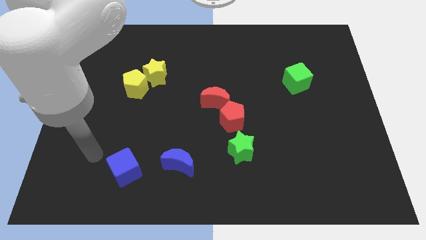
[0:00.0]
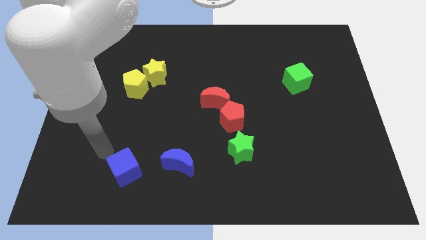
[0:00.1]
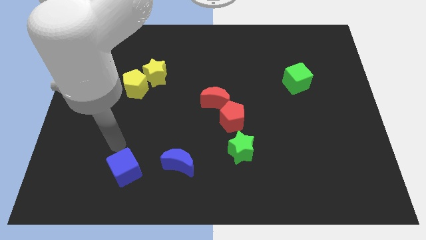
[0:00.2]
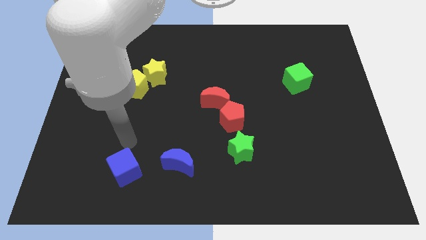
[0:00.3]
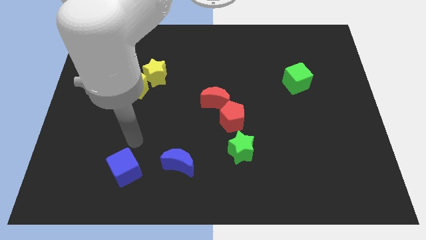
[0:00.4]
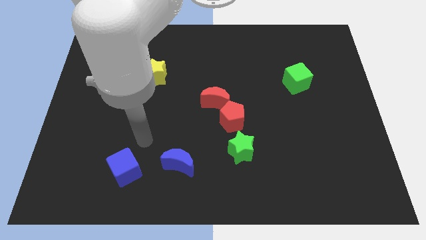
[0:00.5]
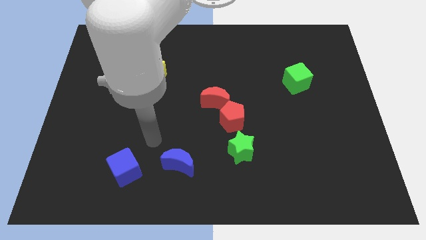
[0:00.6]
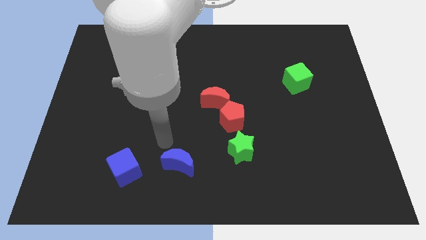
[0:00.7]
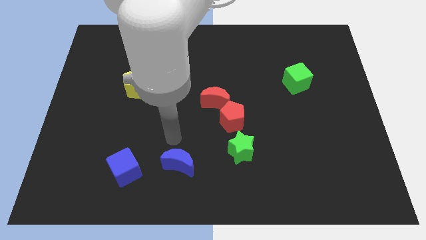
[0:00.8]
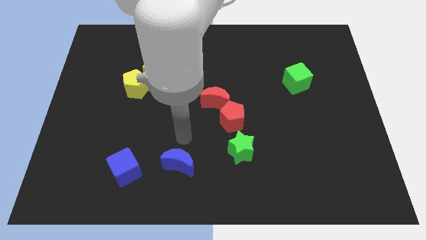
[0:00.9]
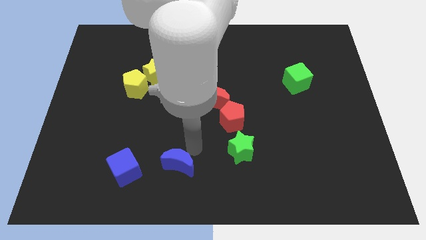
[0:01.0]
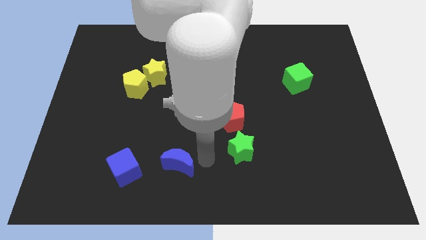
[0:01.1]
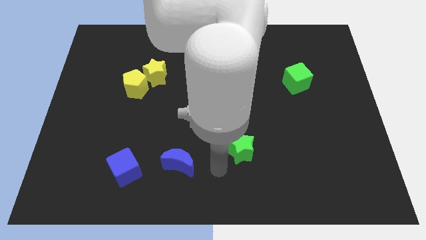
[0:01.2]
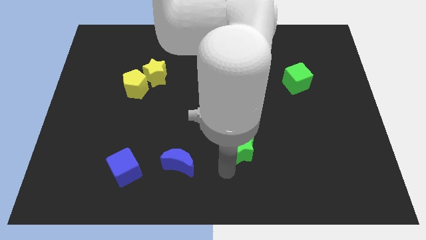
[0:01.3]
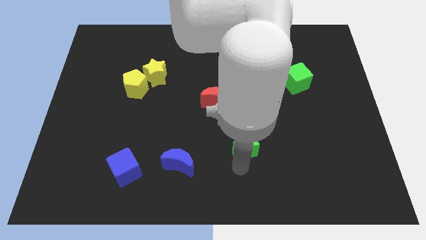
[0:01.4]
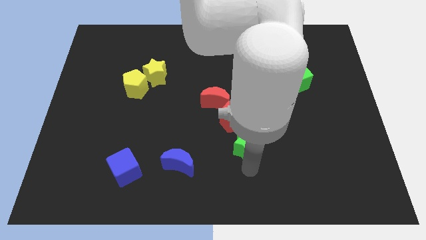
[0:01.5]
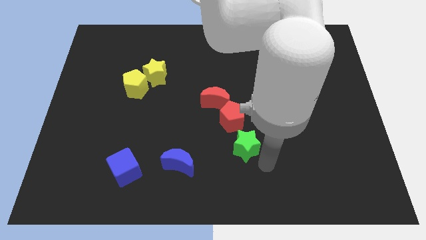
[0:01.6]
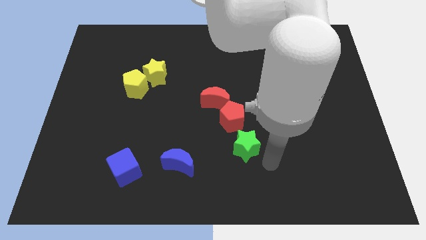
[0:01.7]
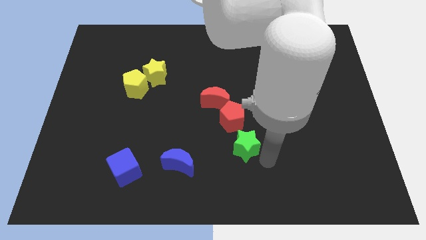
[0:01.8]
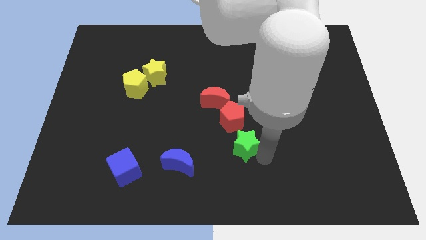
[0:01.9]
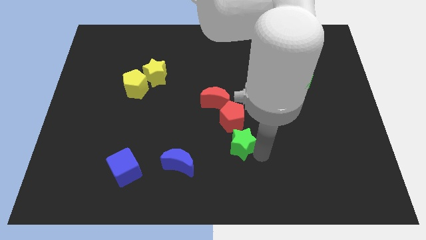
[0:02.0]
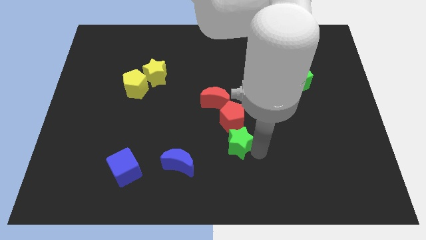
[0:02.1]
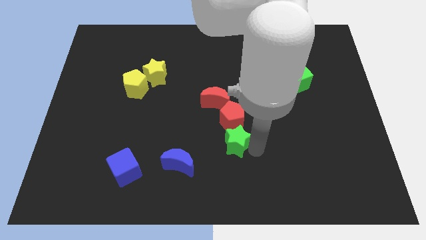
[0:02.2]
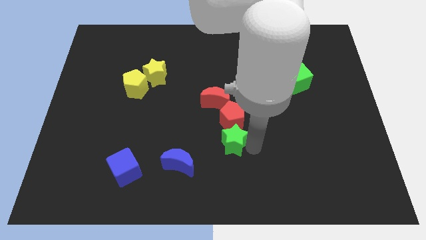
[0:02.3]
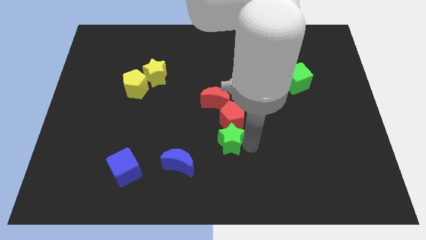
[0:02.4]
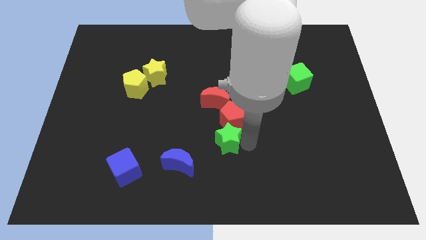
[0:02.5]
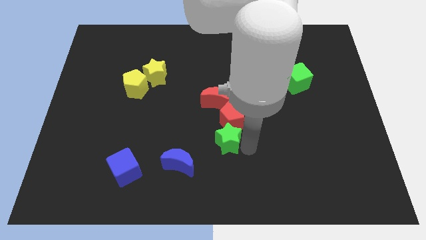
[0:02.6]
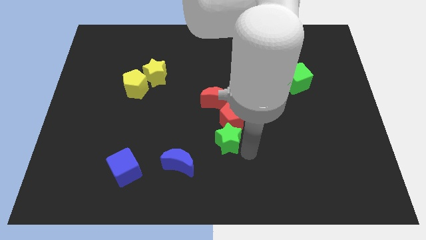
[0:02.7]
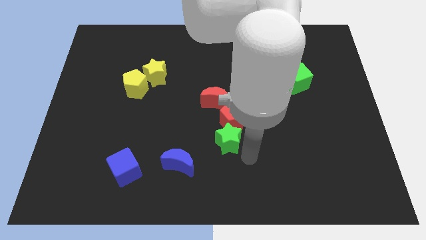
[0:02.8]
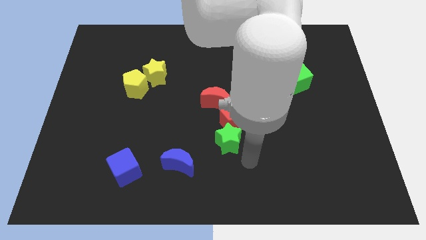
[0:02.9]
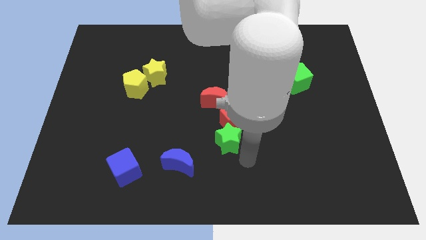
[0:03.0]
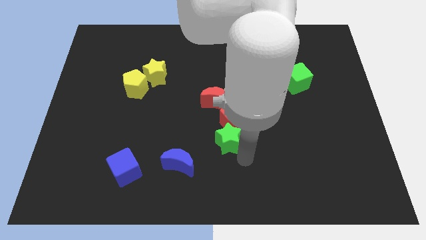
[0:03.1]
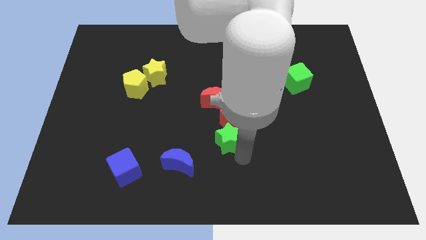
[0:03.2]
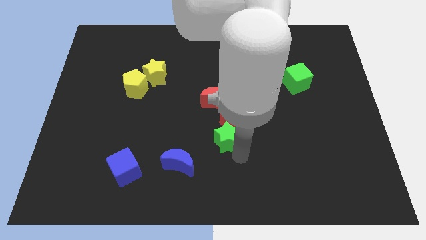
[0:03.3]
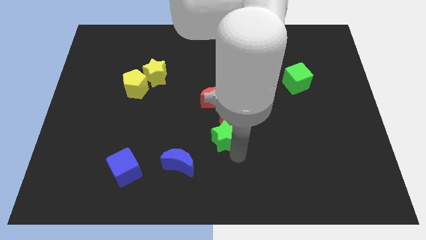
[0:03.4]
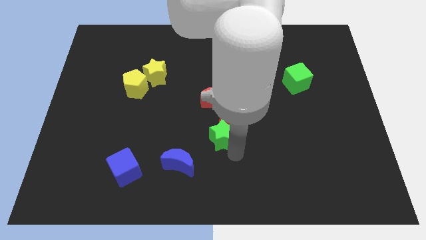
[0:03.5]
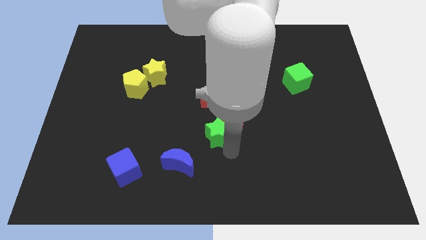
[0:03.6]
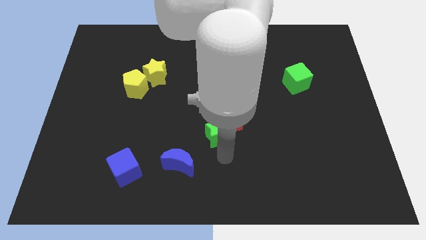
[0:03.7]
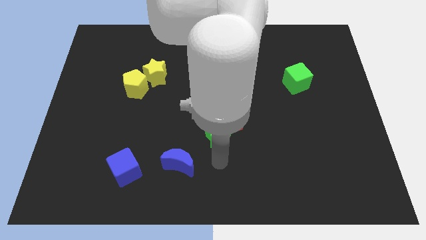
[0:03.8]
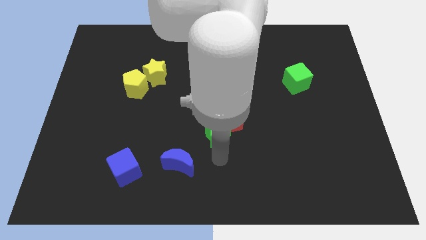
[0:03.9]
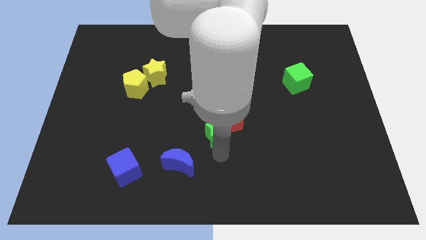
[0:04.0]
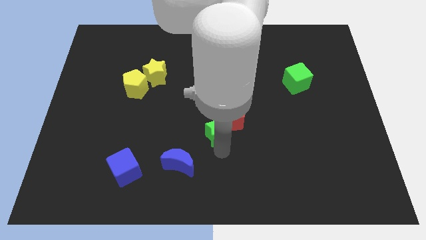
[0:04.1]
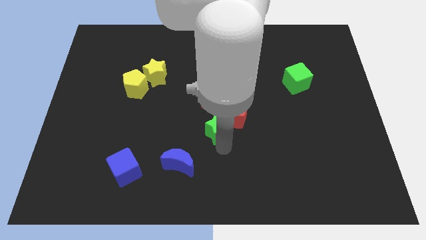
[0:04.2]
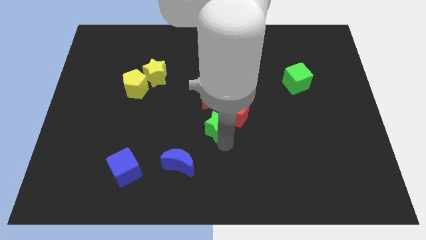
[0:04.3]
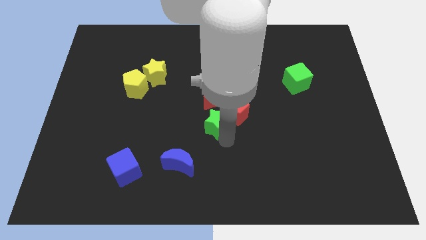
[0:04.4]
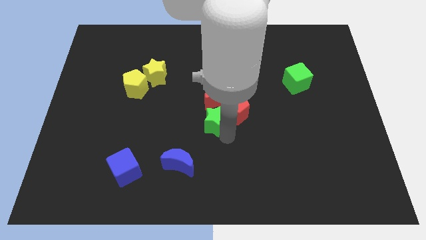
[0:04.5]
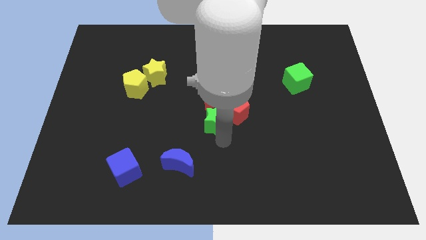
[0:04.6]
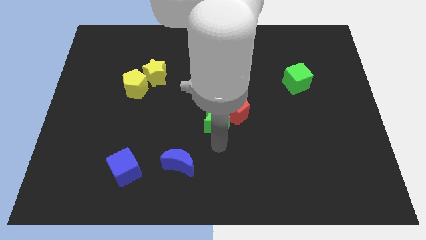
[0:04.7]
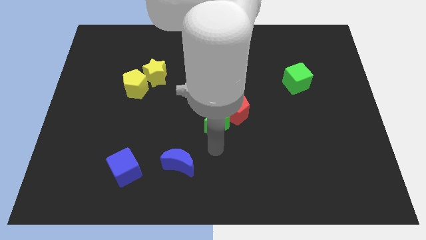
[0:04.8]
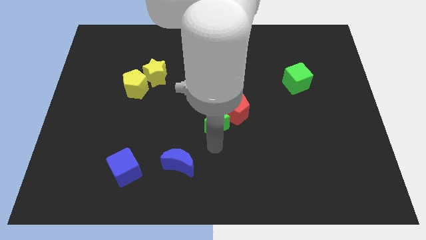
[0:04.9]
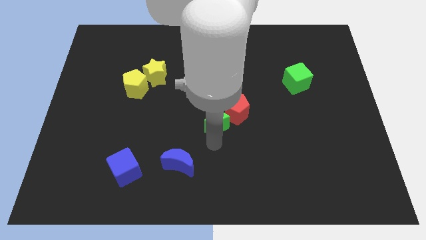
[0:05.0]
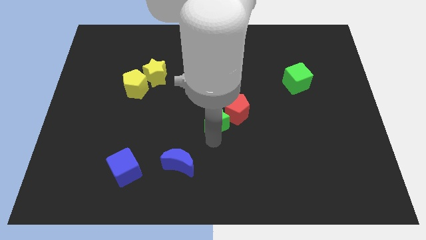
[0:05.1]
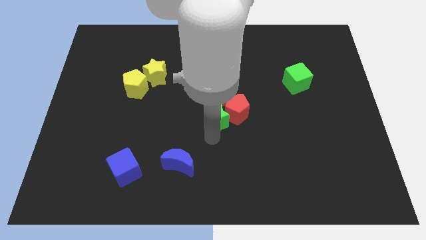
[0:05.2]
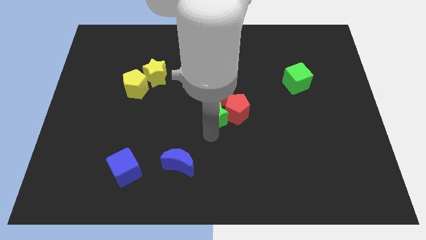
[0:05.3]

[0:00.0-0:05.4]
push the green star close to the red moon

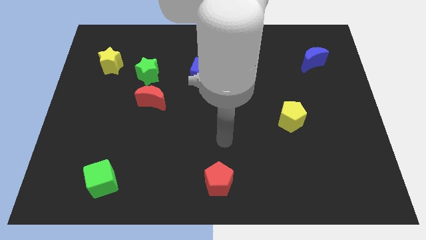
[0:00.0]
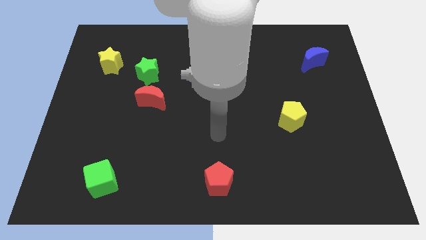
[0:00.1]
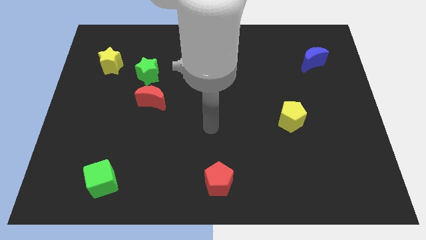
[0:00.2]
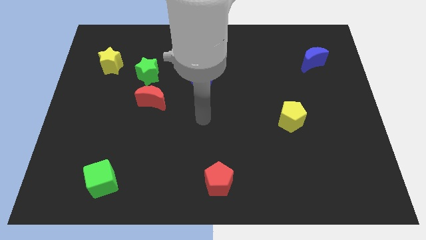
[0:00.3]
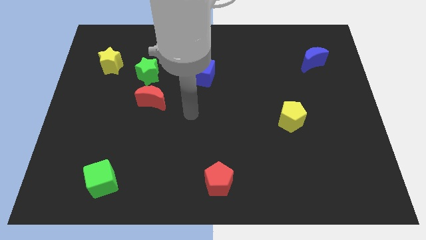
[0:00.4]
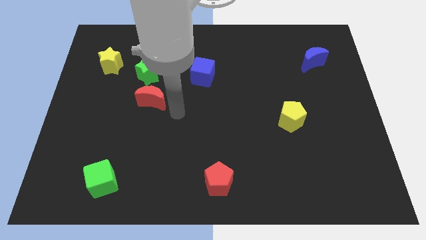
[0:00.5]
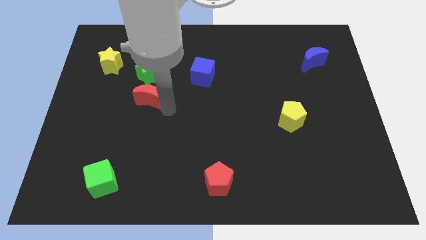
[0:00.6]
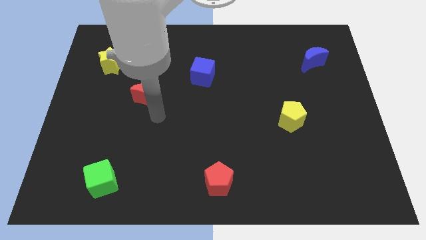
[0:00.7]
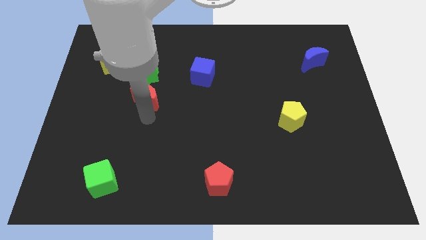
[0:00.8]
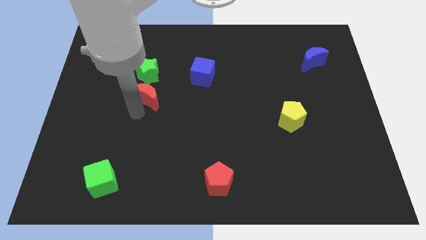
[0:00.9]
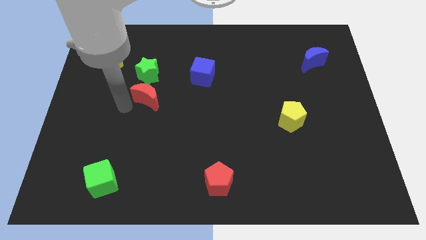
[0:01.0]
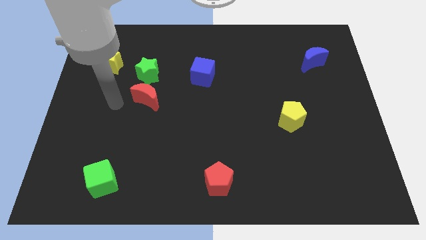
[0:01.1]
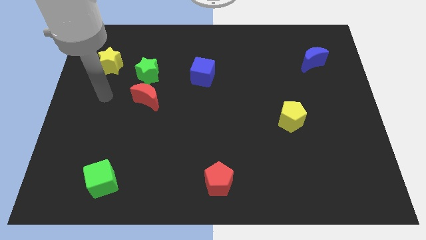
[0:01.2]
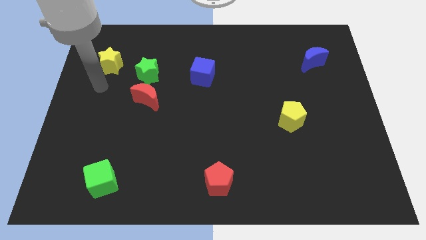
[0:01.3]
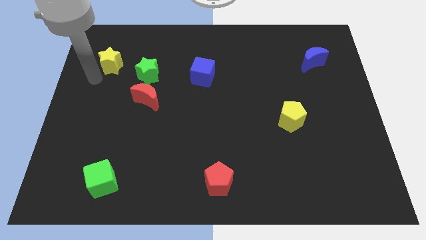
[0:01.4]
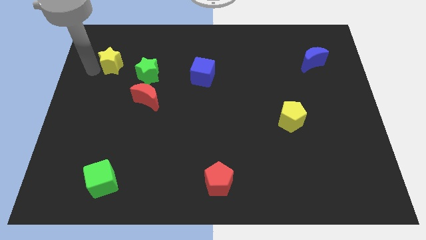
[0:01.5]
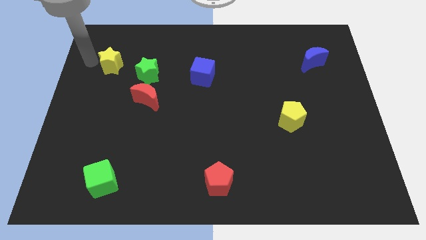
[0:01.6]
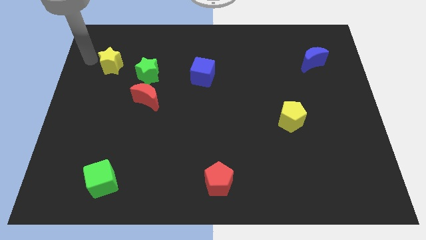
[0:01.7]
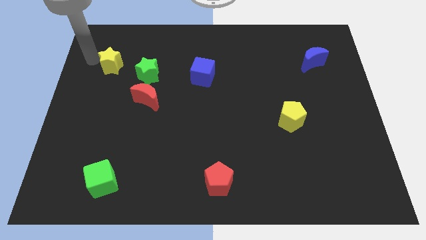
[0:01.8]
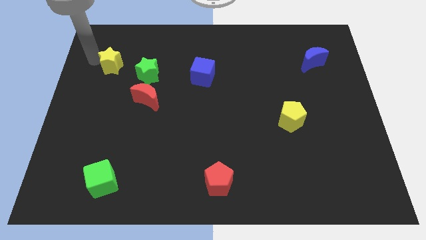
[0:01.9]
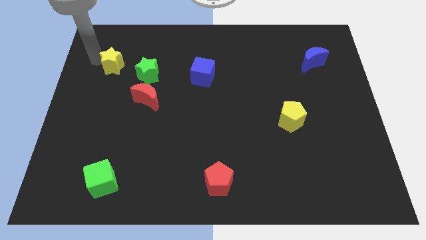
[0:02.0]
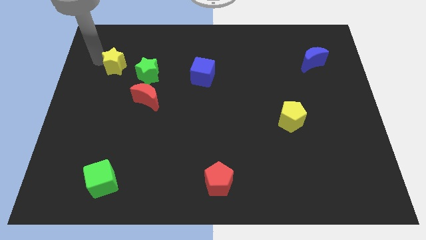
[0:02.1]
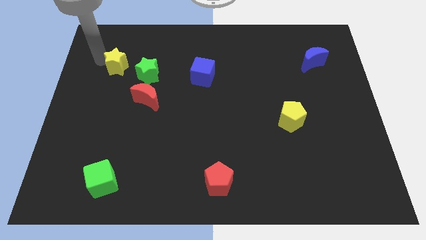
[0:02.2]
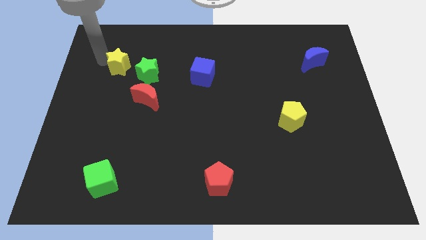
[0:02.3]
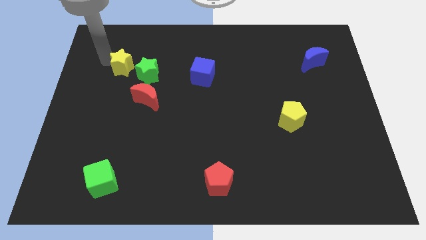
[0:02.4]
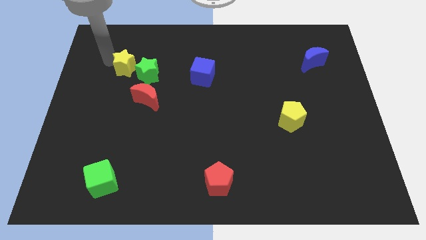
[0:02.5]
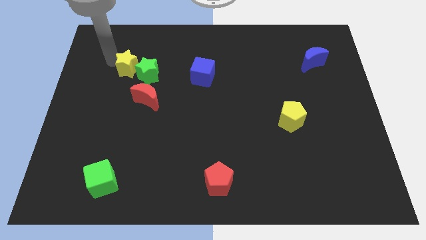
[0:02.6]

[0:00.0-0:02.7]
move the yellow star next to the green star
